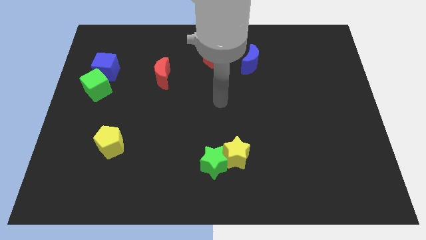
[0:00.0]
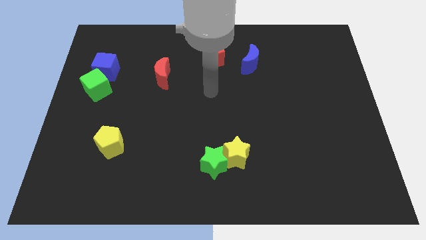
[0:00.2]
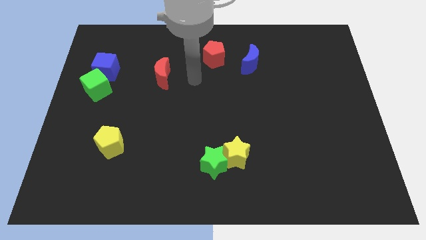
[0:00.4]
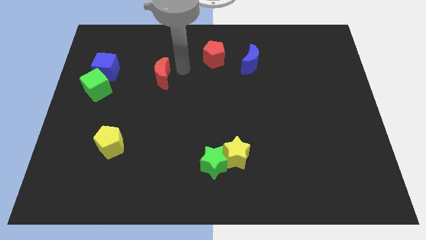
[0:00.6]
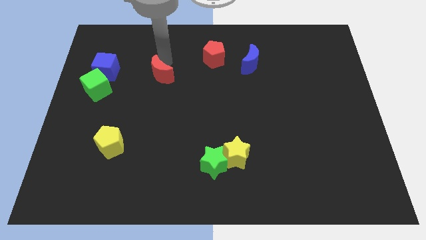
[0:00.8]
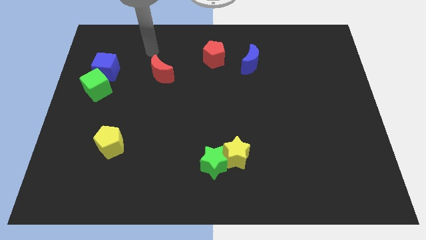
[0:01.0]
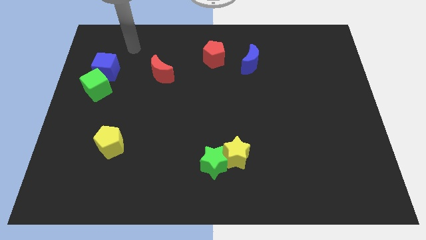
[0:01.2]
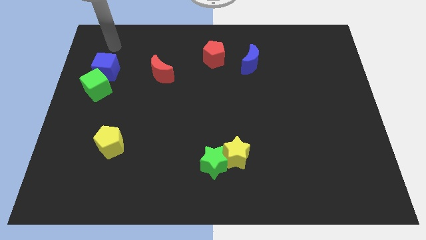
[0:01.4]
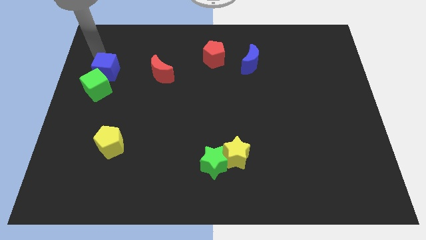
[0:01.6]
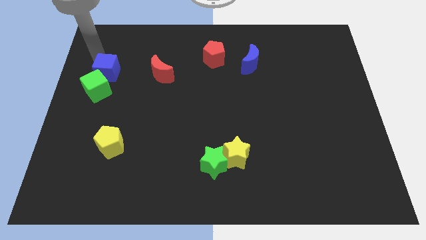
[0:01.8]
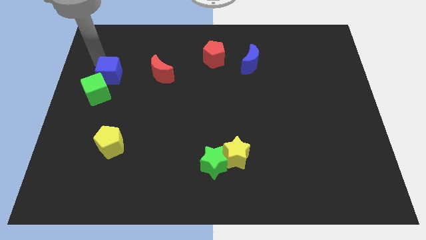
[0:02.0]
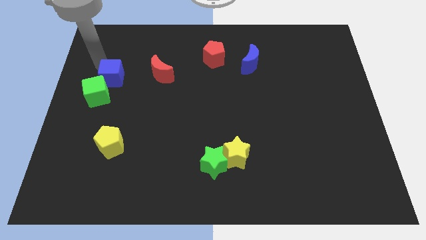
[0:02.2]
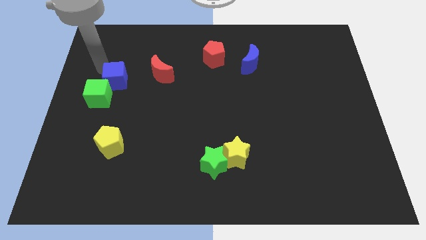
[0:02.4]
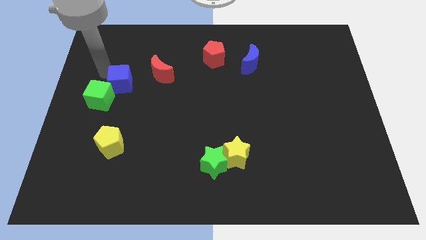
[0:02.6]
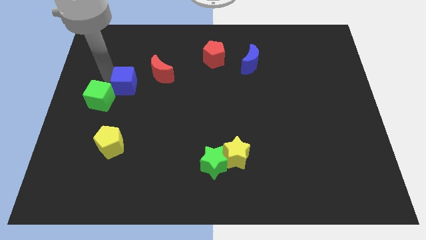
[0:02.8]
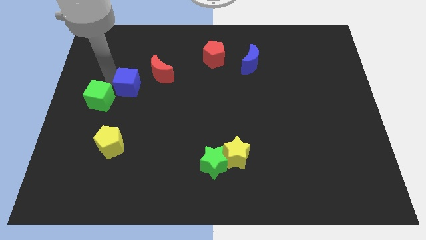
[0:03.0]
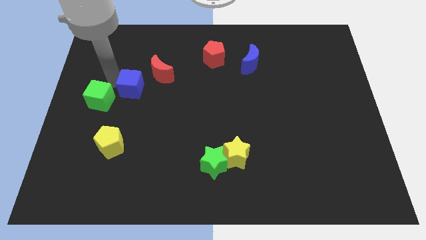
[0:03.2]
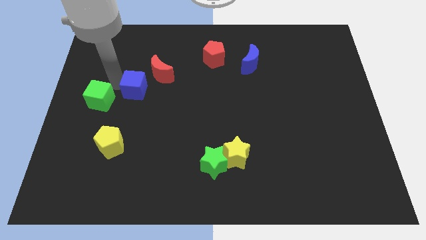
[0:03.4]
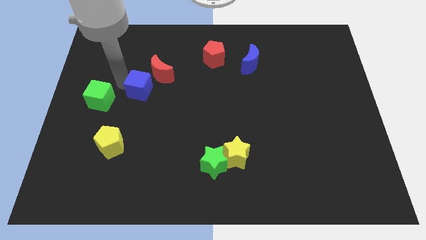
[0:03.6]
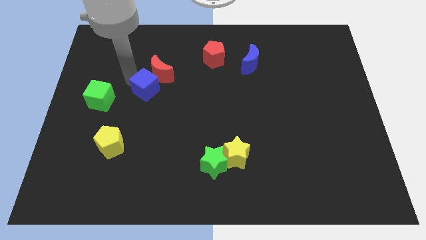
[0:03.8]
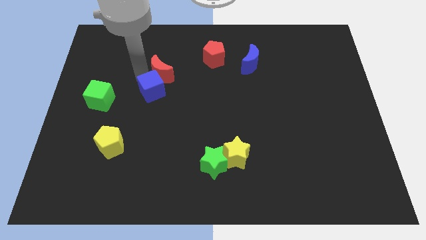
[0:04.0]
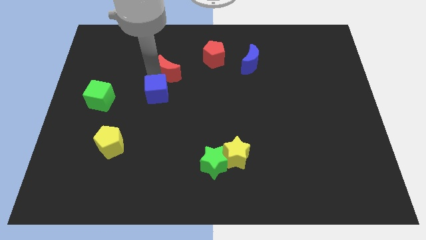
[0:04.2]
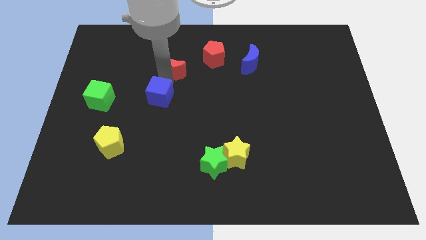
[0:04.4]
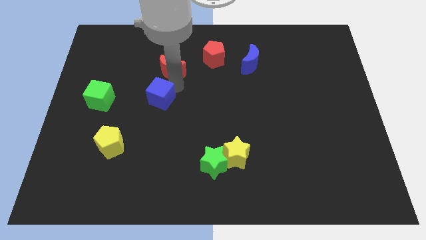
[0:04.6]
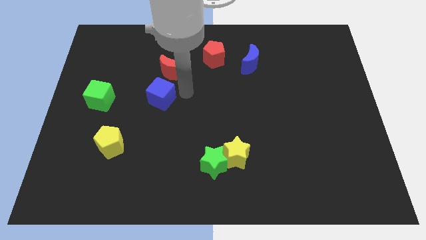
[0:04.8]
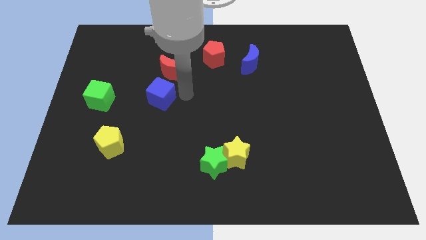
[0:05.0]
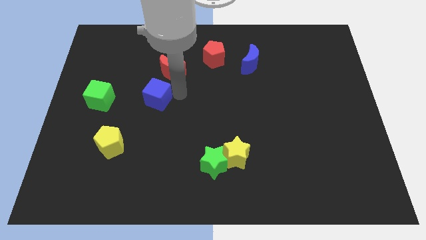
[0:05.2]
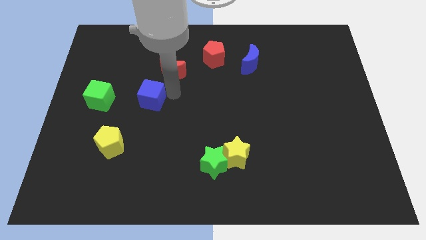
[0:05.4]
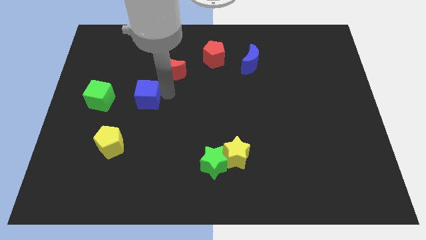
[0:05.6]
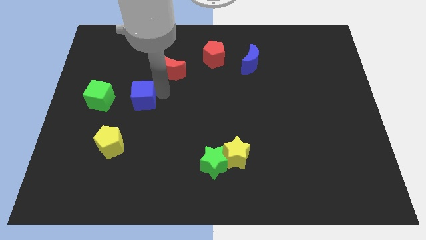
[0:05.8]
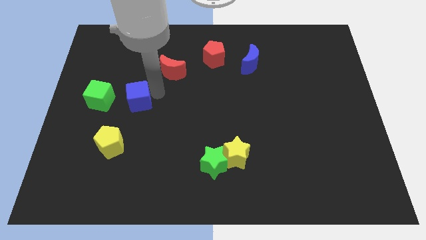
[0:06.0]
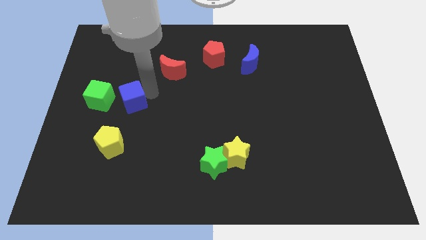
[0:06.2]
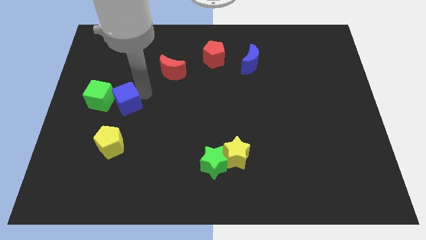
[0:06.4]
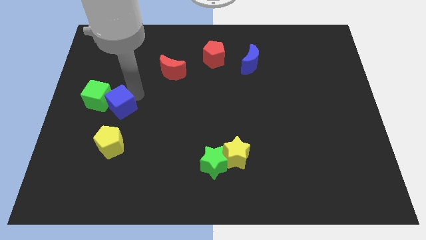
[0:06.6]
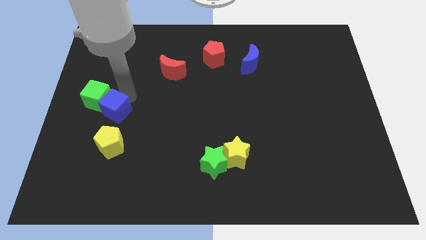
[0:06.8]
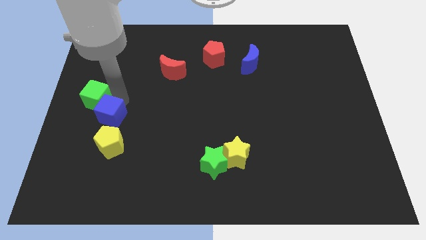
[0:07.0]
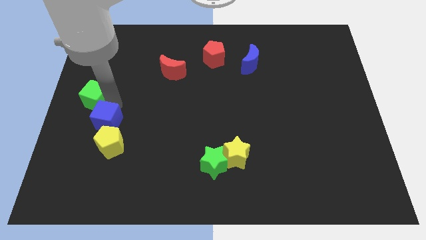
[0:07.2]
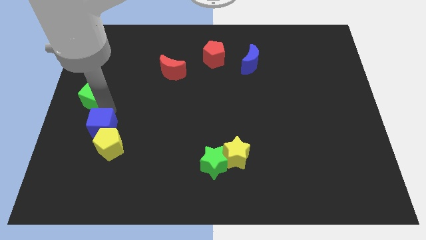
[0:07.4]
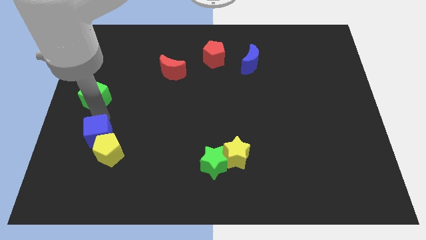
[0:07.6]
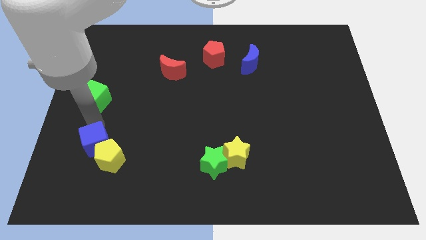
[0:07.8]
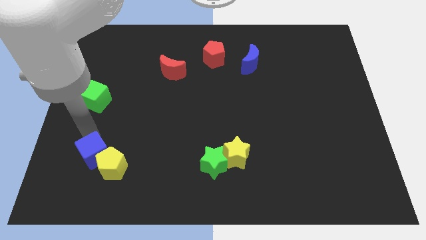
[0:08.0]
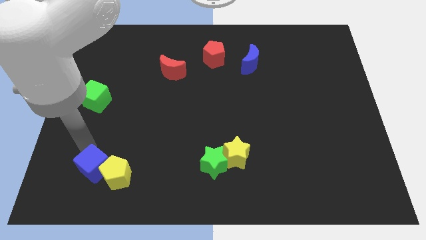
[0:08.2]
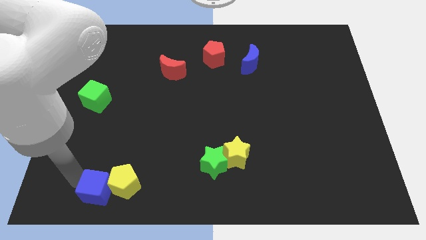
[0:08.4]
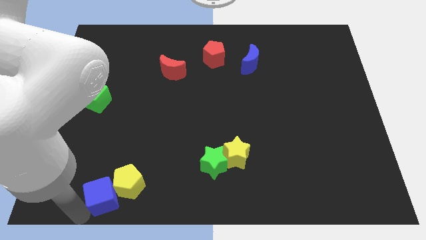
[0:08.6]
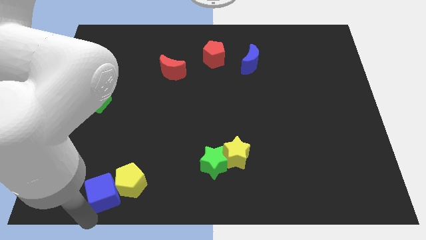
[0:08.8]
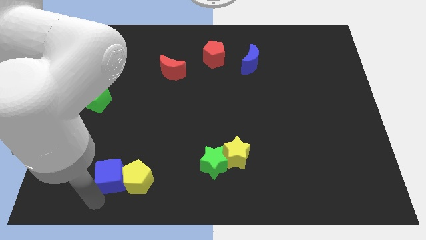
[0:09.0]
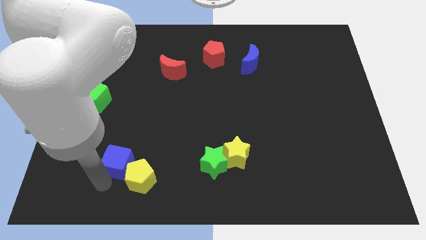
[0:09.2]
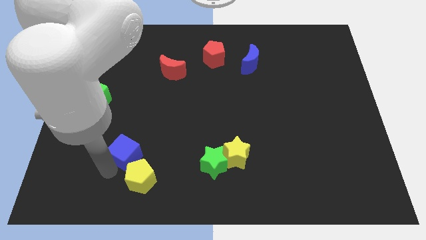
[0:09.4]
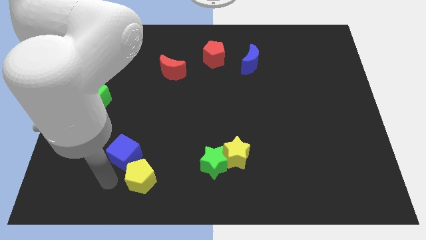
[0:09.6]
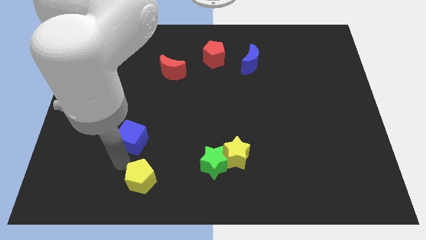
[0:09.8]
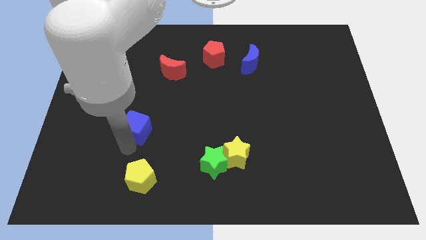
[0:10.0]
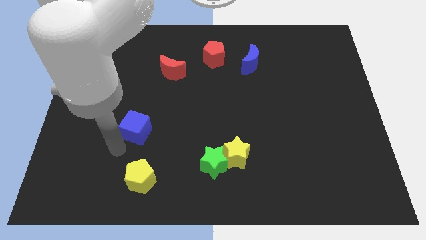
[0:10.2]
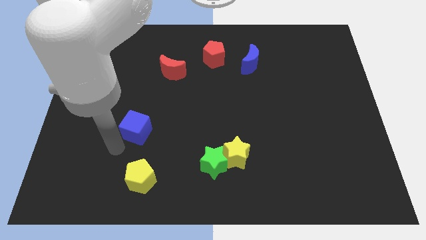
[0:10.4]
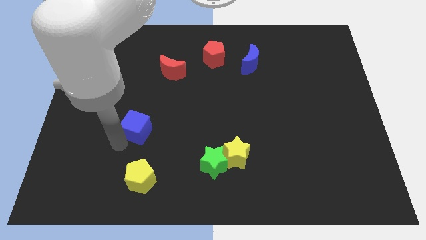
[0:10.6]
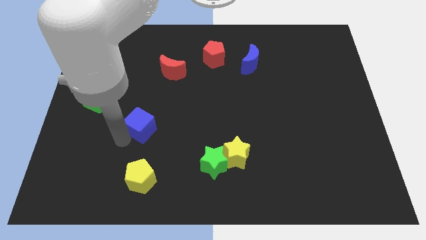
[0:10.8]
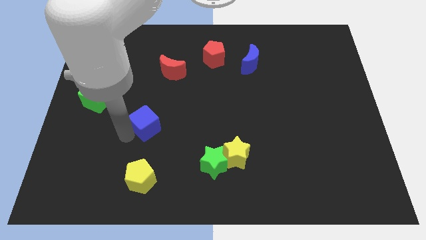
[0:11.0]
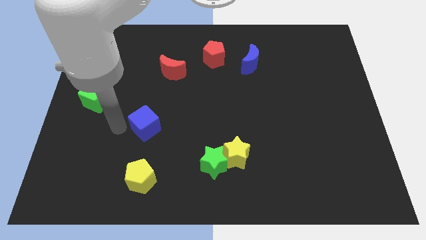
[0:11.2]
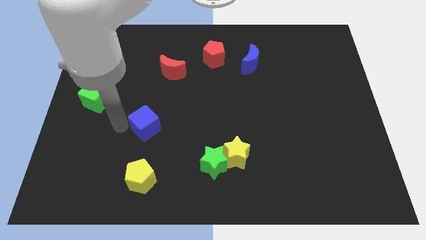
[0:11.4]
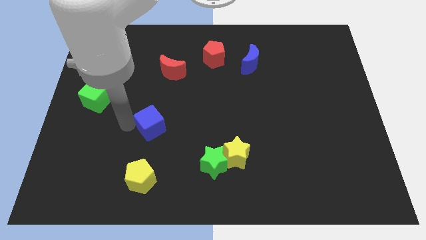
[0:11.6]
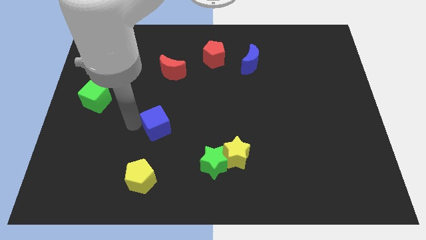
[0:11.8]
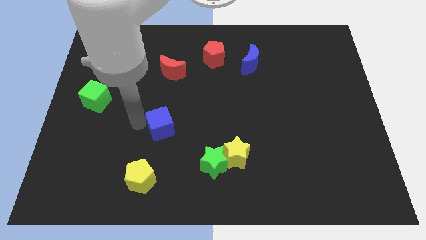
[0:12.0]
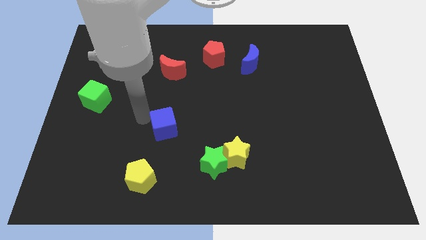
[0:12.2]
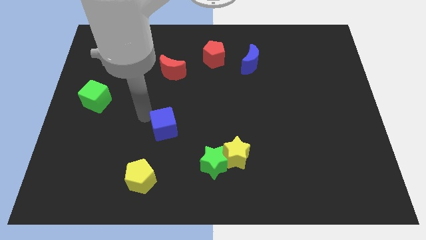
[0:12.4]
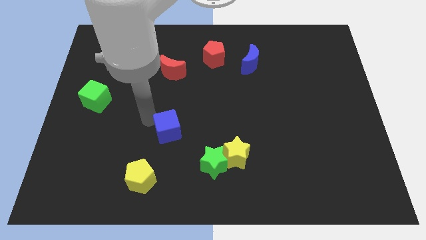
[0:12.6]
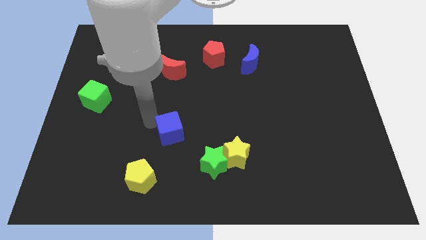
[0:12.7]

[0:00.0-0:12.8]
put the blue cube diagonally up and to the left of the green star

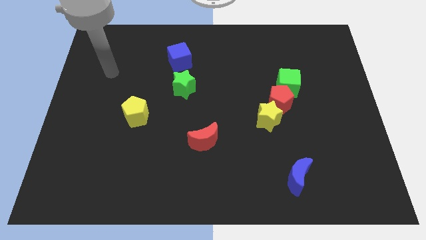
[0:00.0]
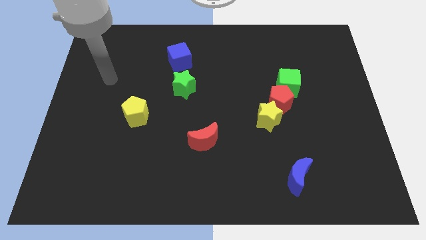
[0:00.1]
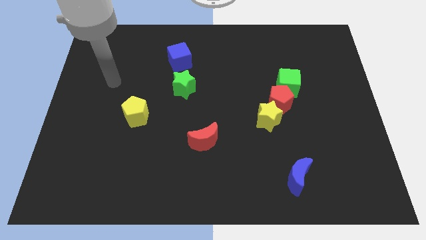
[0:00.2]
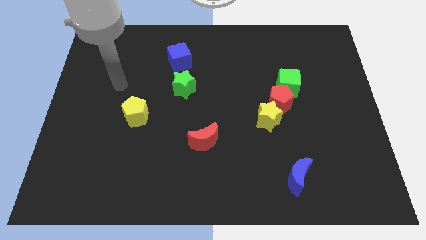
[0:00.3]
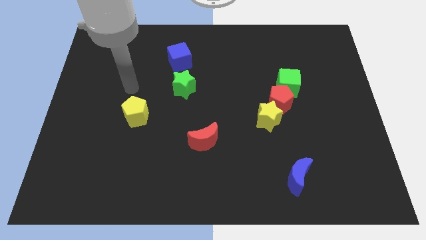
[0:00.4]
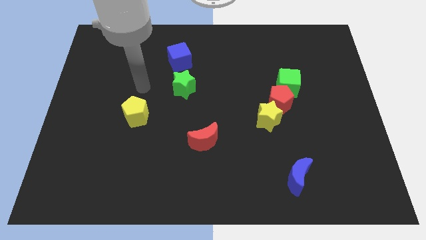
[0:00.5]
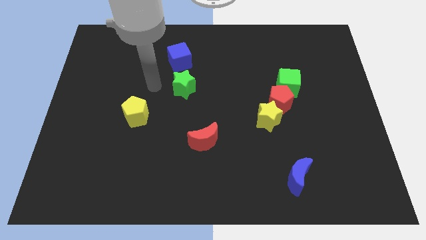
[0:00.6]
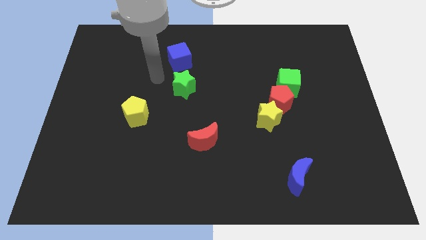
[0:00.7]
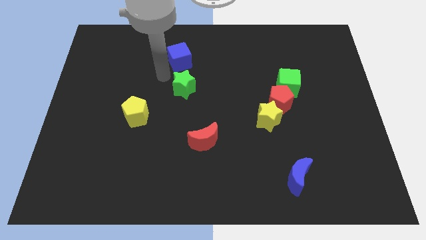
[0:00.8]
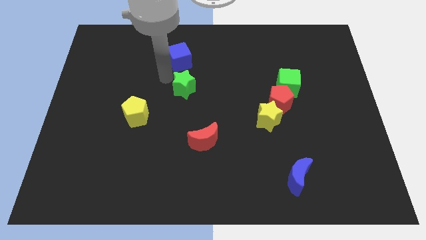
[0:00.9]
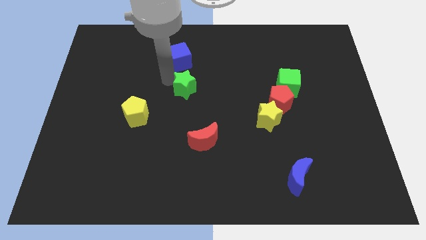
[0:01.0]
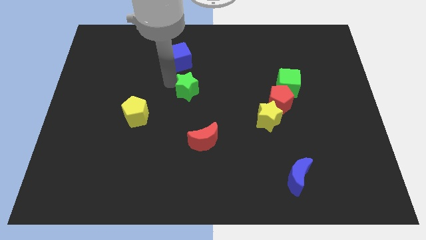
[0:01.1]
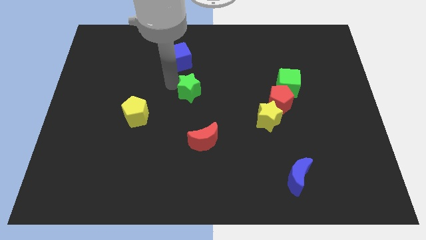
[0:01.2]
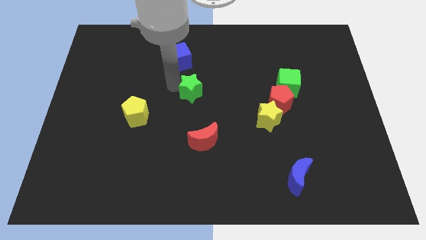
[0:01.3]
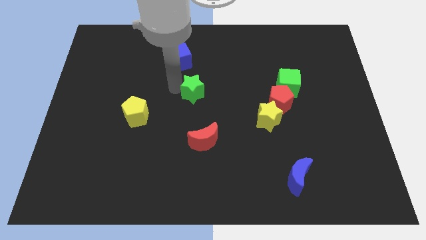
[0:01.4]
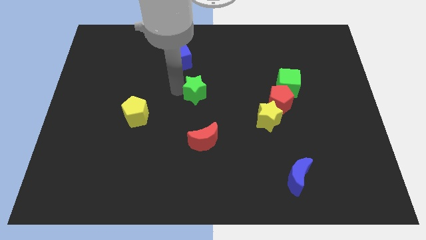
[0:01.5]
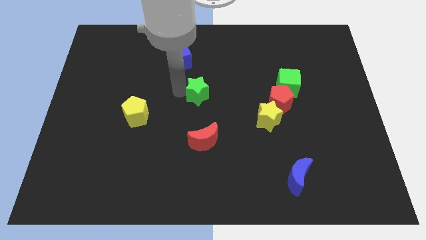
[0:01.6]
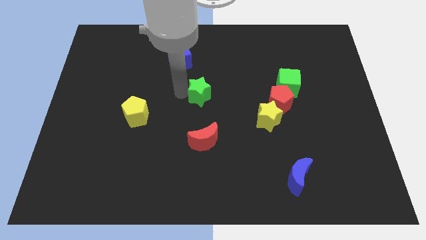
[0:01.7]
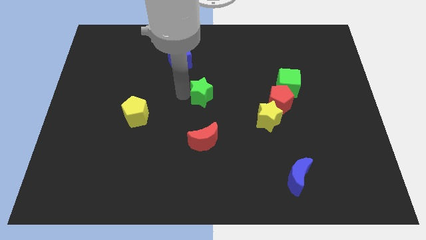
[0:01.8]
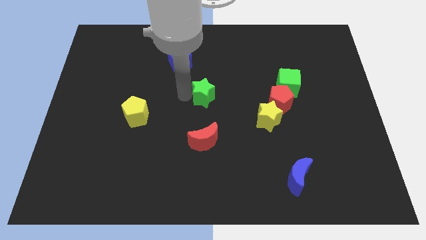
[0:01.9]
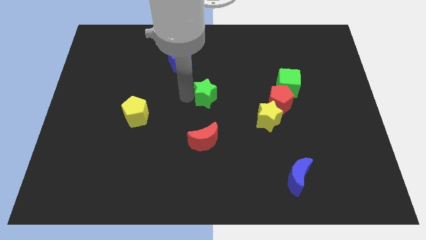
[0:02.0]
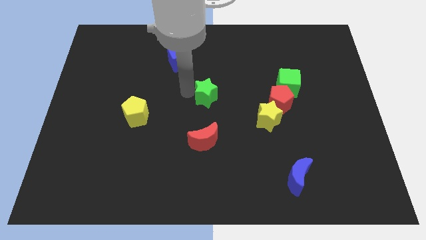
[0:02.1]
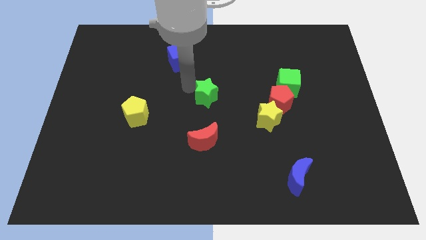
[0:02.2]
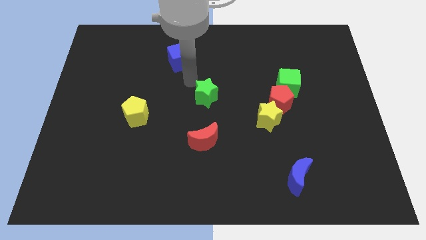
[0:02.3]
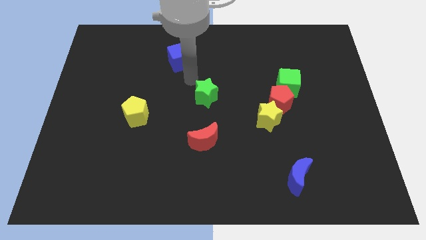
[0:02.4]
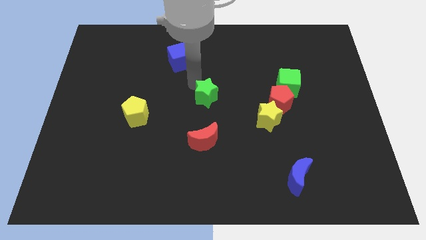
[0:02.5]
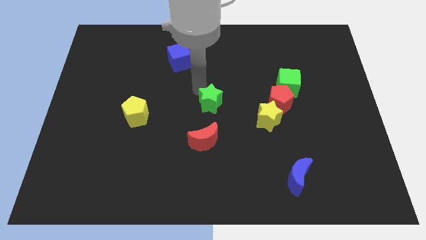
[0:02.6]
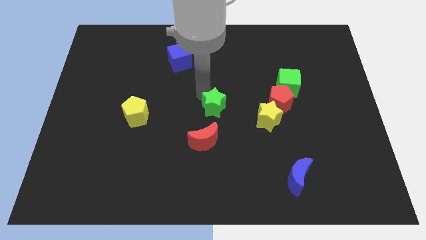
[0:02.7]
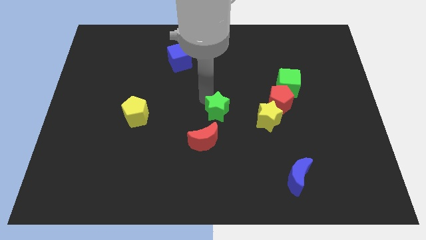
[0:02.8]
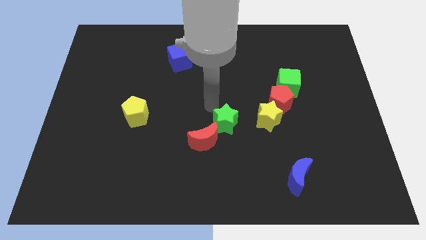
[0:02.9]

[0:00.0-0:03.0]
push the green star just right of the red moon
